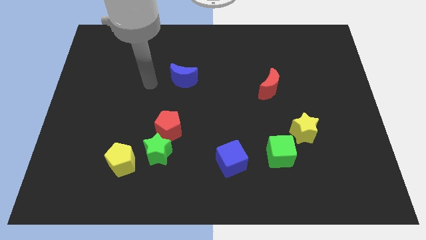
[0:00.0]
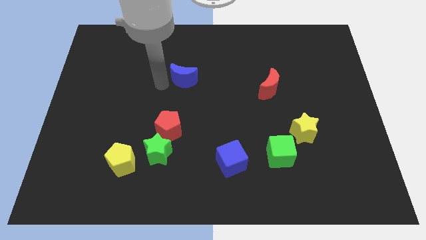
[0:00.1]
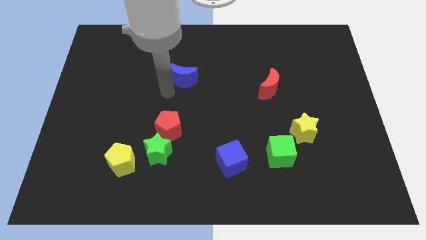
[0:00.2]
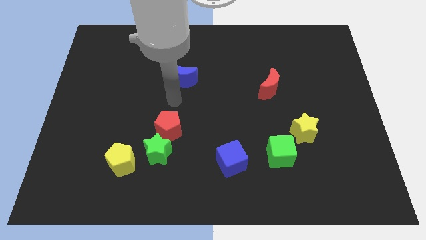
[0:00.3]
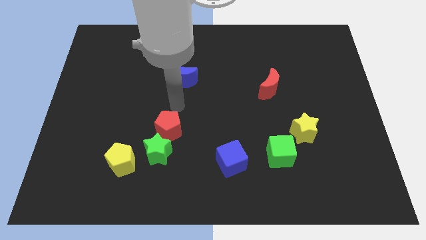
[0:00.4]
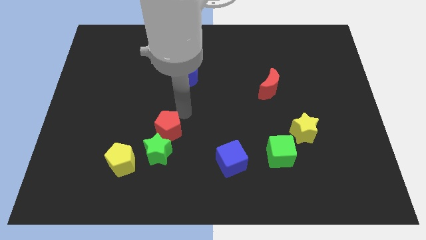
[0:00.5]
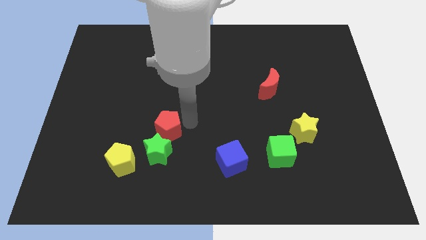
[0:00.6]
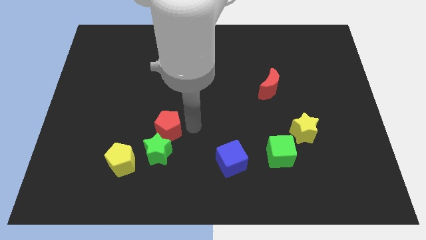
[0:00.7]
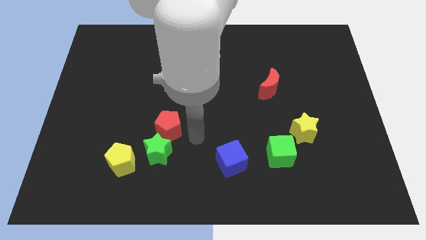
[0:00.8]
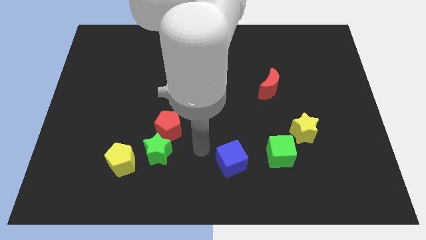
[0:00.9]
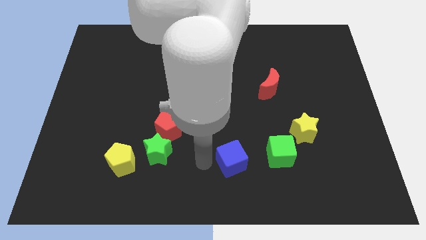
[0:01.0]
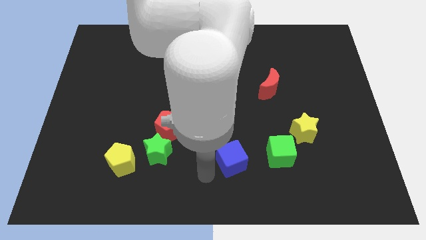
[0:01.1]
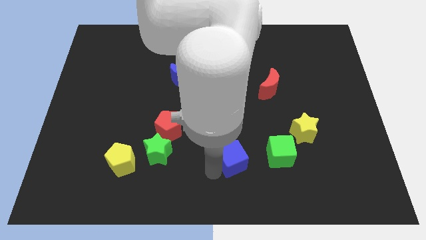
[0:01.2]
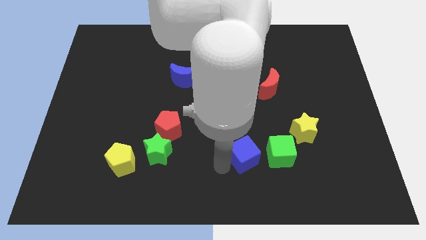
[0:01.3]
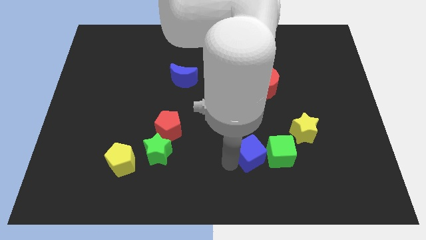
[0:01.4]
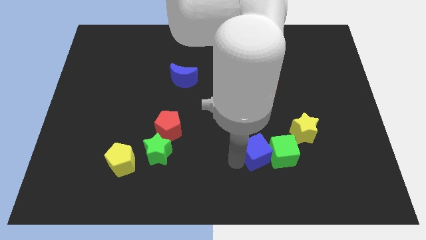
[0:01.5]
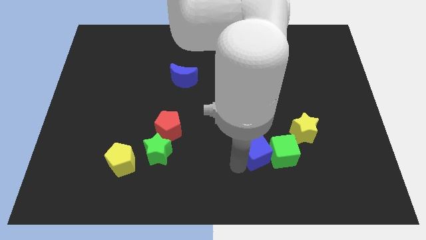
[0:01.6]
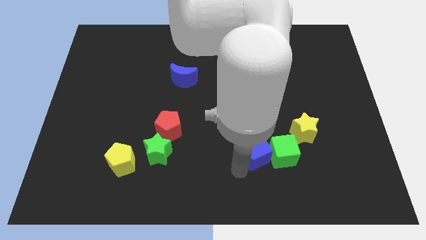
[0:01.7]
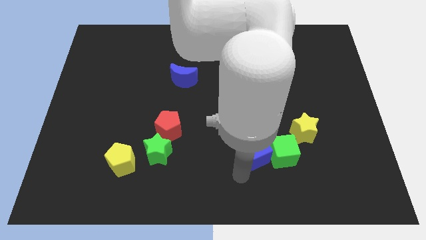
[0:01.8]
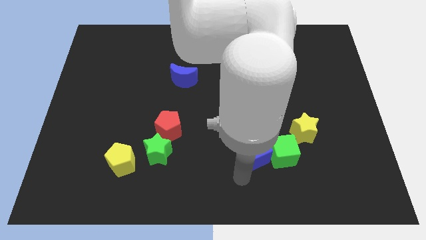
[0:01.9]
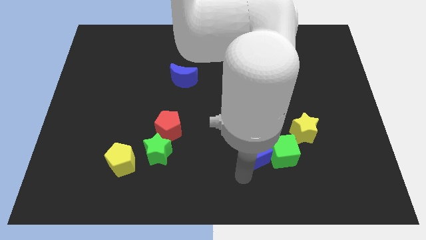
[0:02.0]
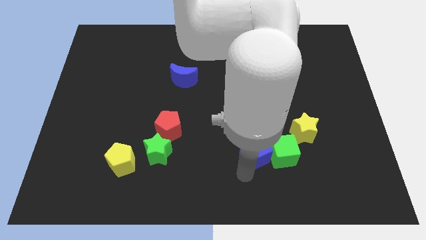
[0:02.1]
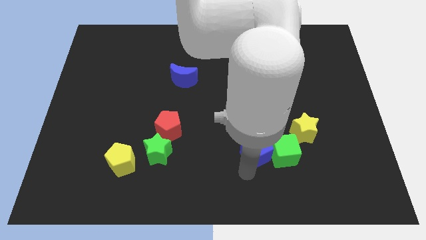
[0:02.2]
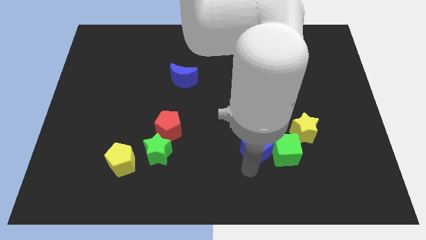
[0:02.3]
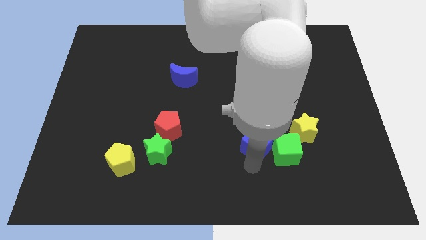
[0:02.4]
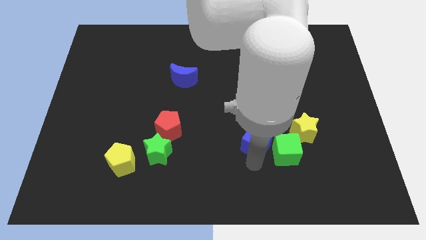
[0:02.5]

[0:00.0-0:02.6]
slide the blue cube a little bit up and then right

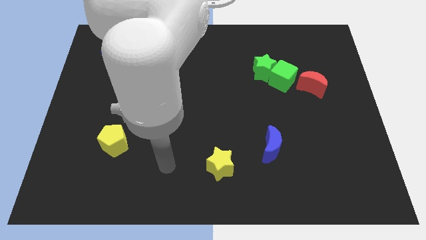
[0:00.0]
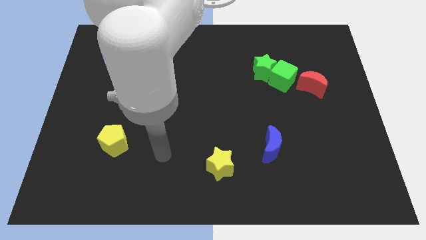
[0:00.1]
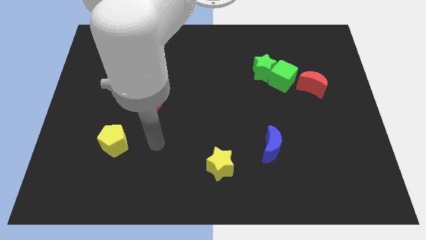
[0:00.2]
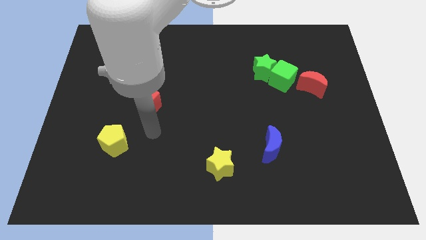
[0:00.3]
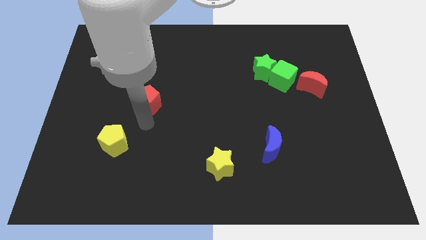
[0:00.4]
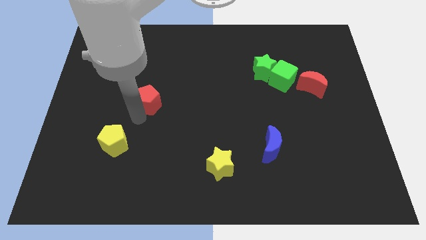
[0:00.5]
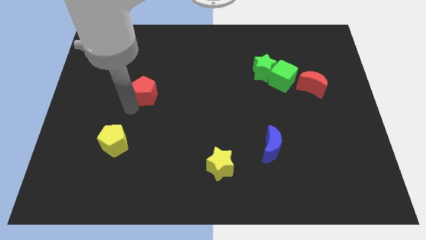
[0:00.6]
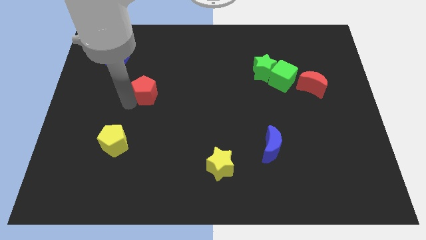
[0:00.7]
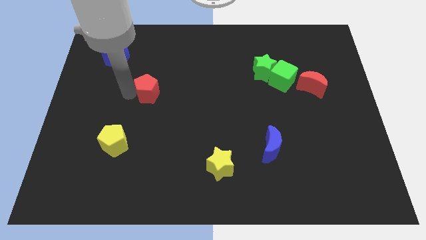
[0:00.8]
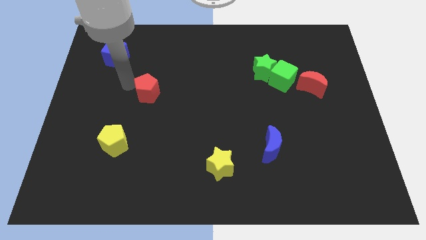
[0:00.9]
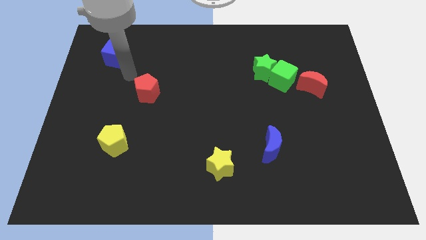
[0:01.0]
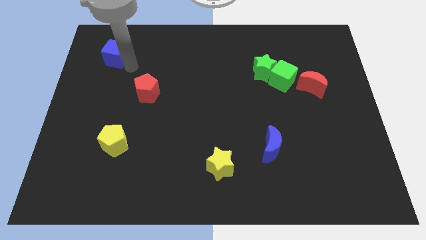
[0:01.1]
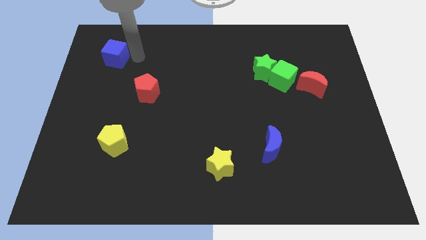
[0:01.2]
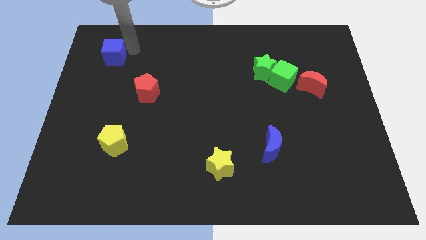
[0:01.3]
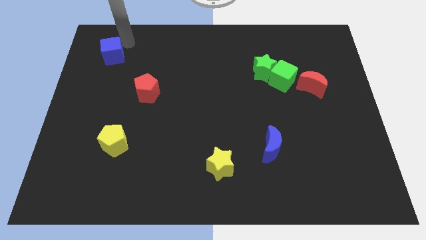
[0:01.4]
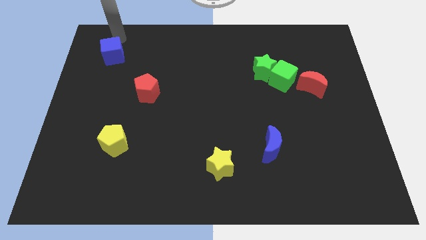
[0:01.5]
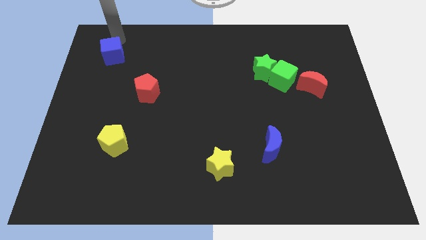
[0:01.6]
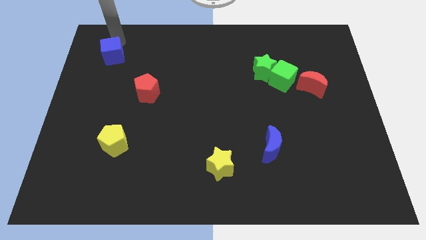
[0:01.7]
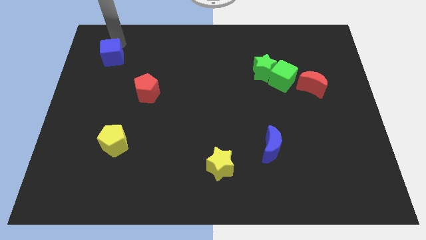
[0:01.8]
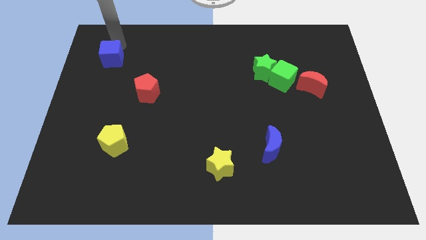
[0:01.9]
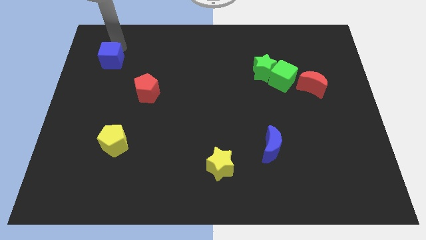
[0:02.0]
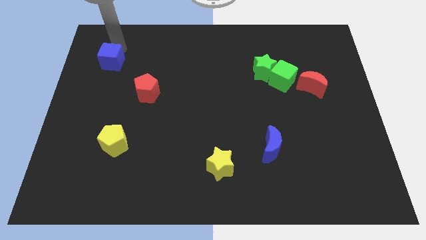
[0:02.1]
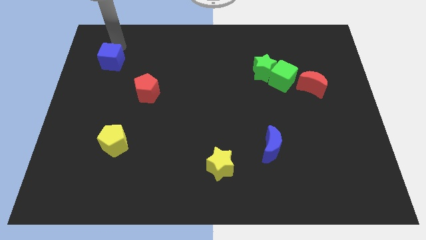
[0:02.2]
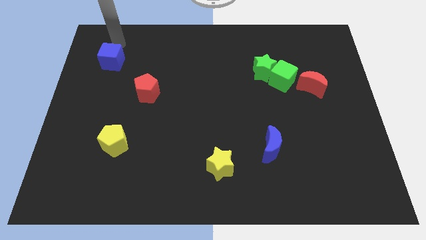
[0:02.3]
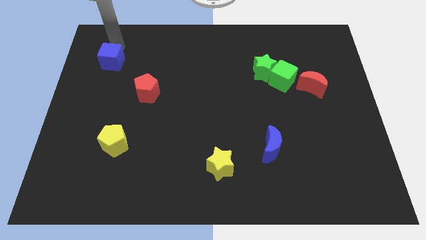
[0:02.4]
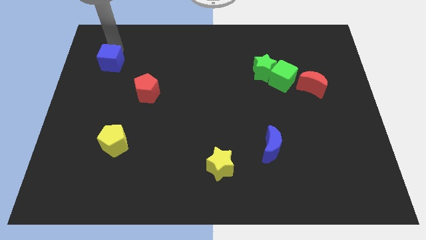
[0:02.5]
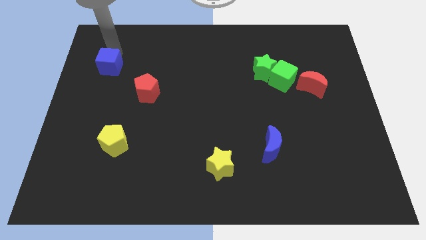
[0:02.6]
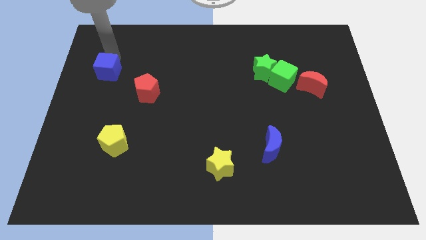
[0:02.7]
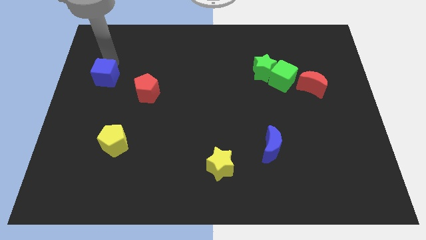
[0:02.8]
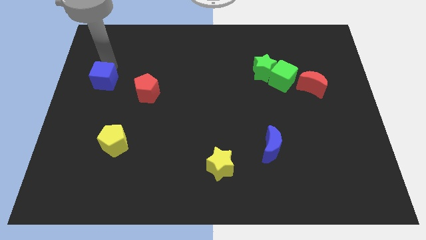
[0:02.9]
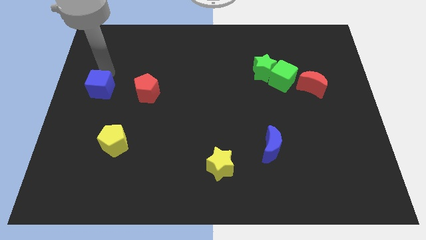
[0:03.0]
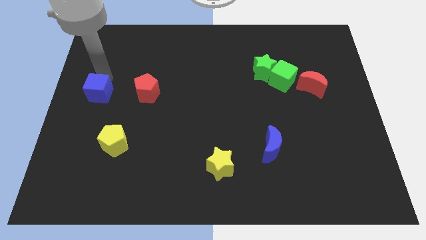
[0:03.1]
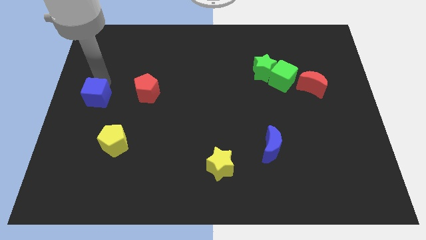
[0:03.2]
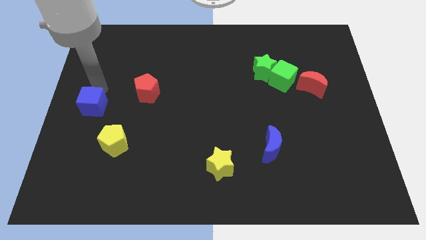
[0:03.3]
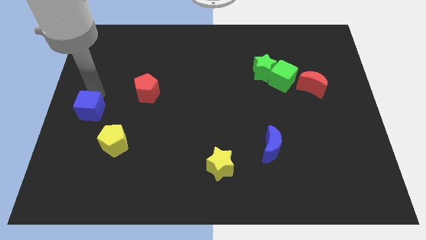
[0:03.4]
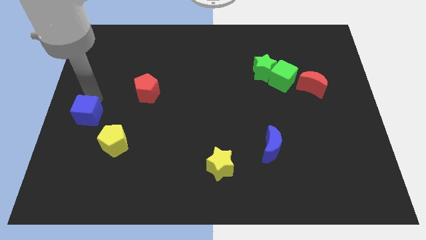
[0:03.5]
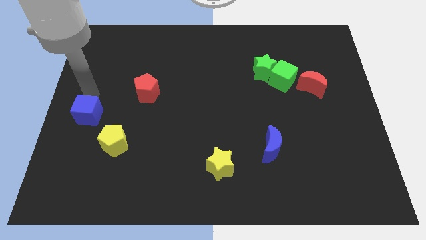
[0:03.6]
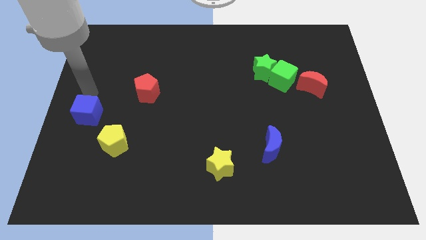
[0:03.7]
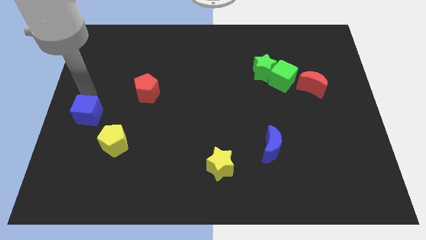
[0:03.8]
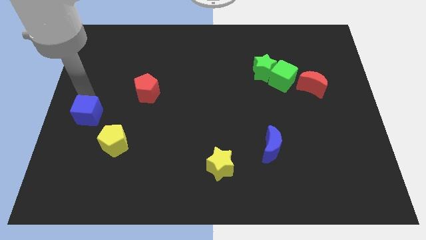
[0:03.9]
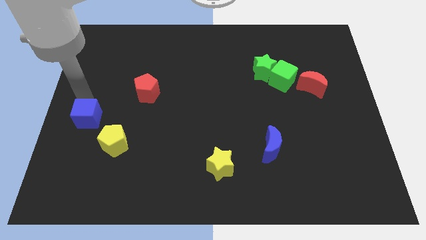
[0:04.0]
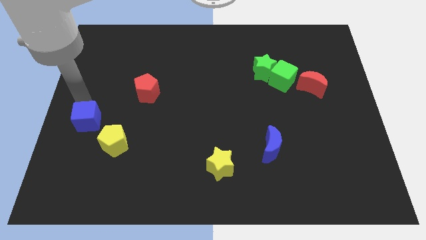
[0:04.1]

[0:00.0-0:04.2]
slide the blue cube downwards

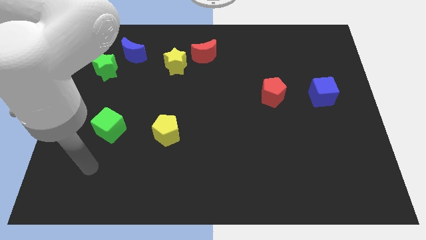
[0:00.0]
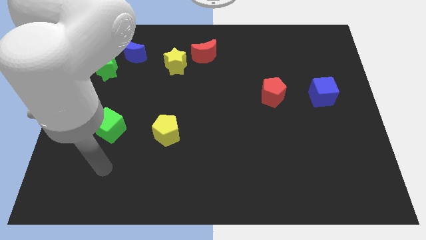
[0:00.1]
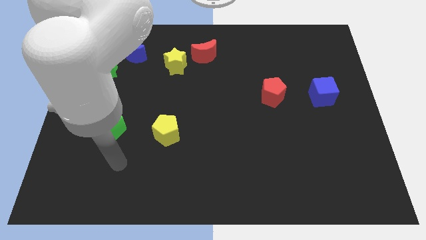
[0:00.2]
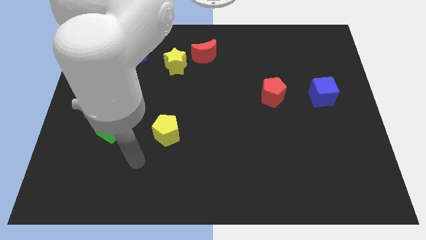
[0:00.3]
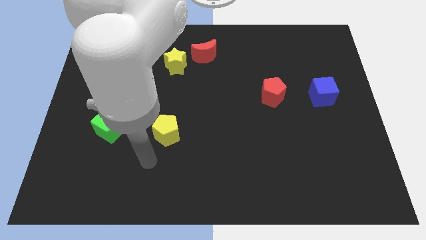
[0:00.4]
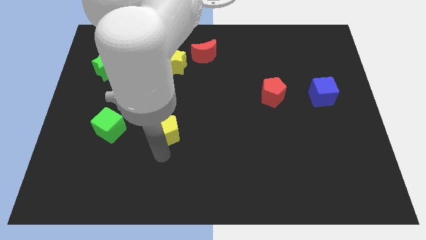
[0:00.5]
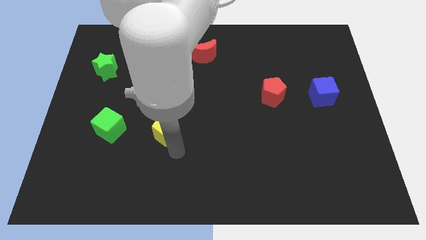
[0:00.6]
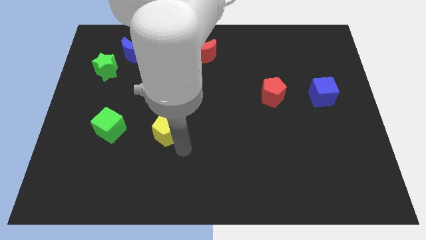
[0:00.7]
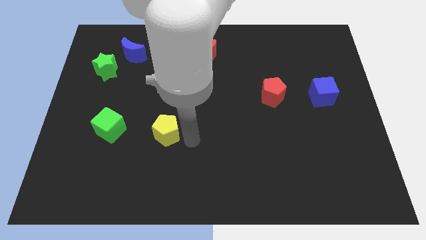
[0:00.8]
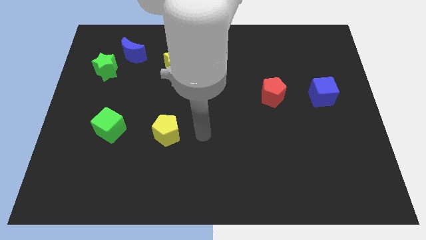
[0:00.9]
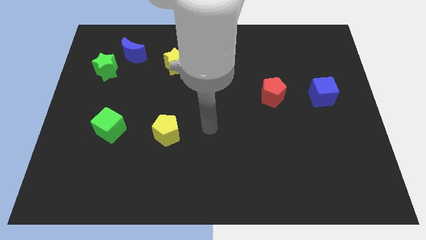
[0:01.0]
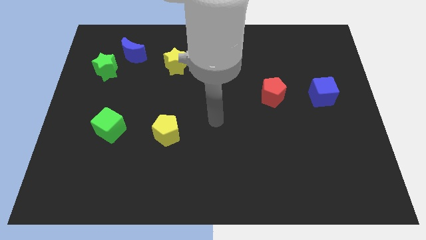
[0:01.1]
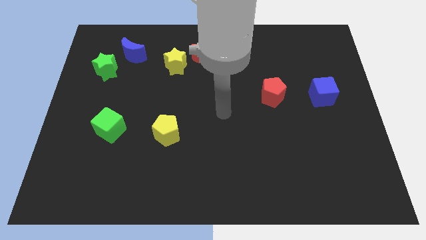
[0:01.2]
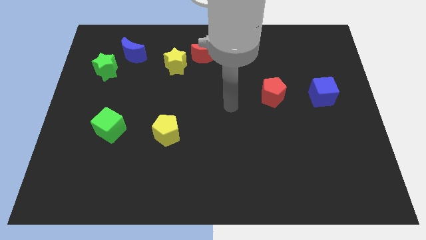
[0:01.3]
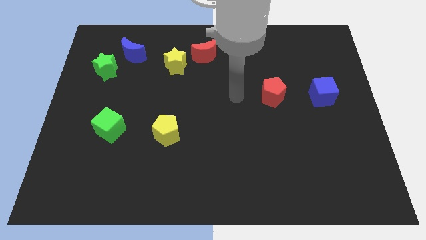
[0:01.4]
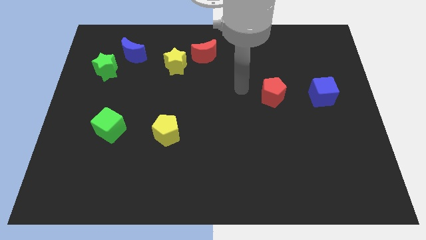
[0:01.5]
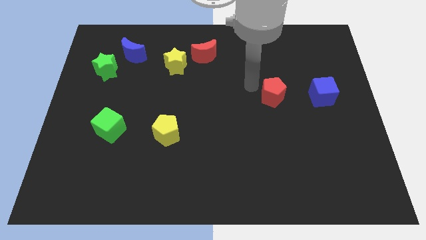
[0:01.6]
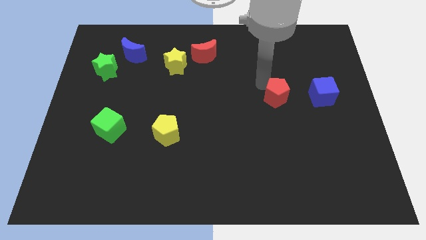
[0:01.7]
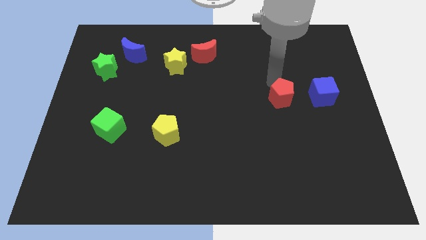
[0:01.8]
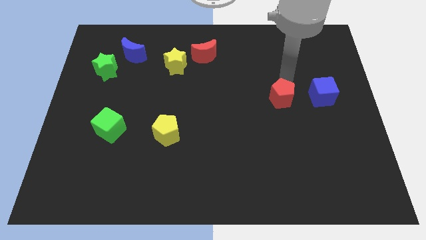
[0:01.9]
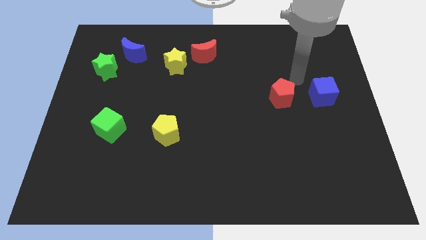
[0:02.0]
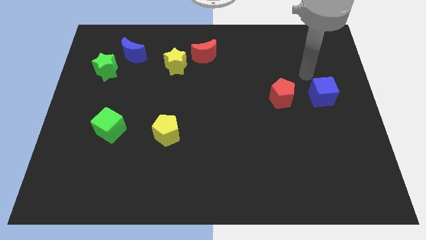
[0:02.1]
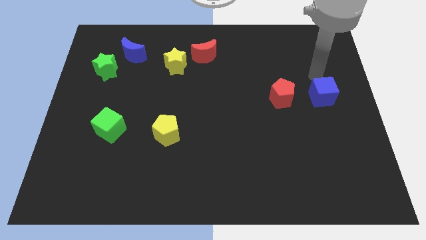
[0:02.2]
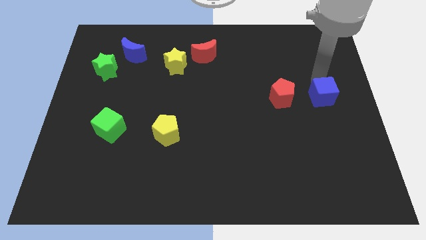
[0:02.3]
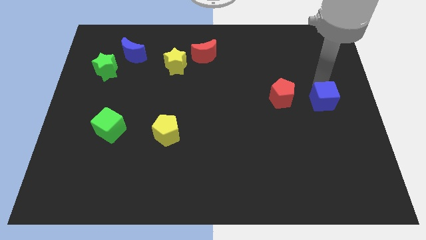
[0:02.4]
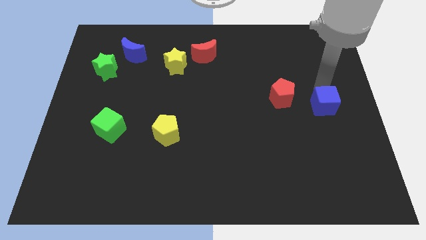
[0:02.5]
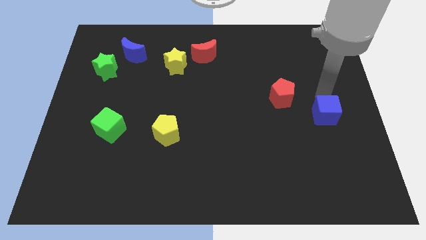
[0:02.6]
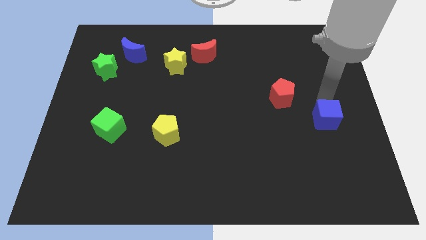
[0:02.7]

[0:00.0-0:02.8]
slightly slide the blue cube down
